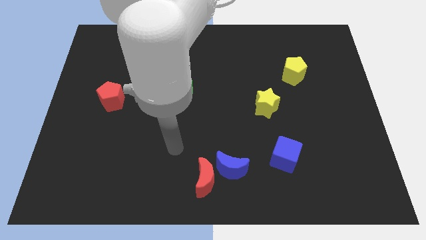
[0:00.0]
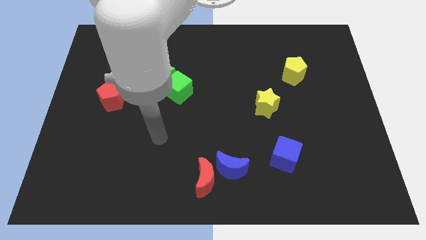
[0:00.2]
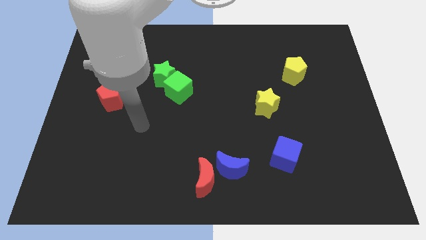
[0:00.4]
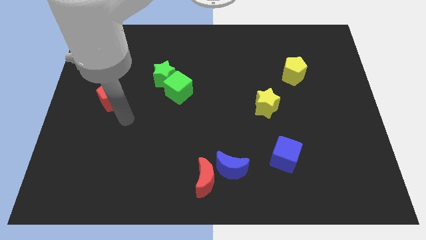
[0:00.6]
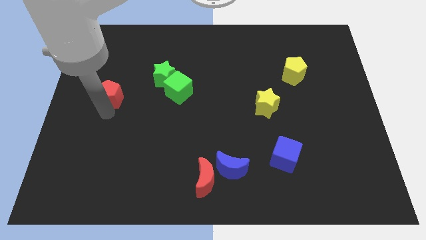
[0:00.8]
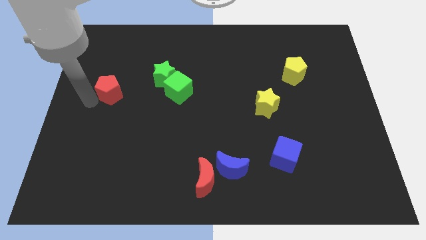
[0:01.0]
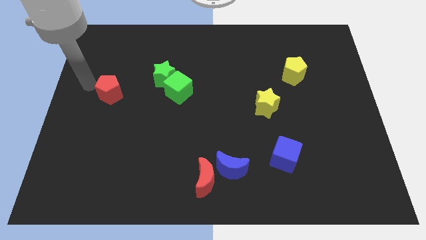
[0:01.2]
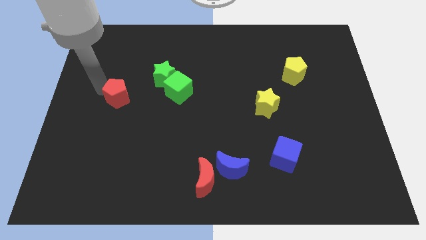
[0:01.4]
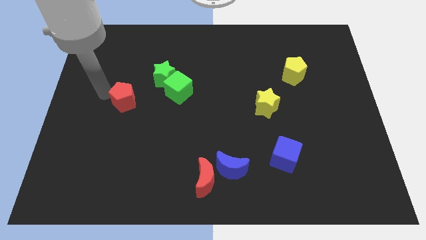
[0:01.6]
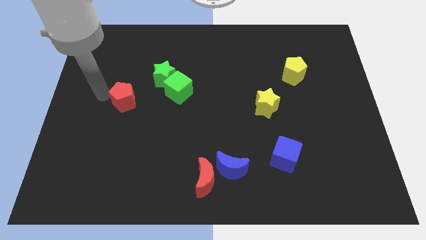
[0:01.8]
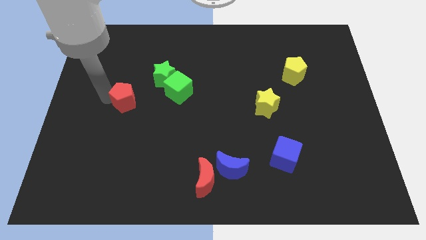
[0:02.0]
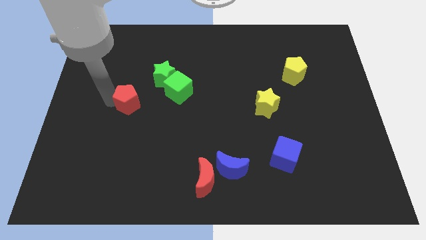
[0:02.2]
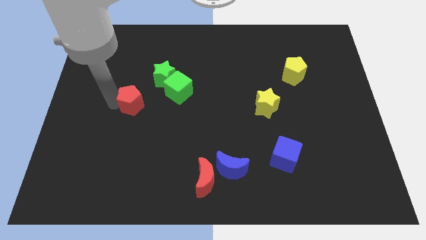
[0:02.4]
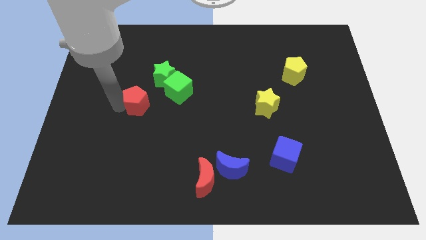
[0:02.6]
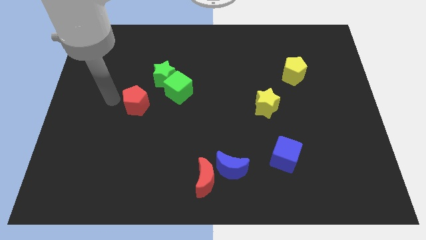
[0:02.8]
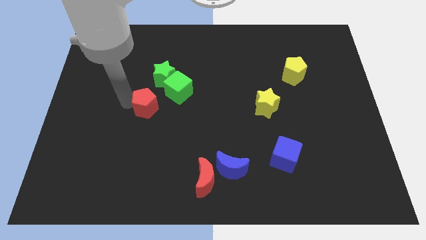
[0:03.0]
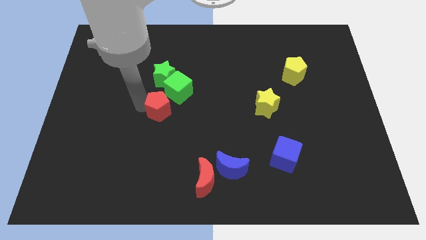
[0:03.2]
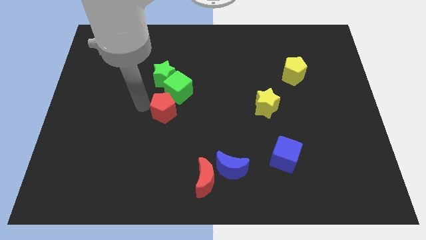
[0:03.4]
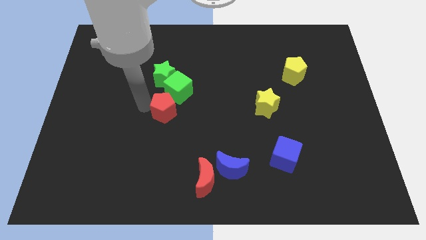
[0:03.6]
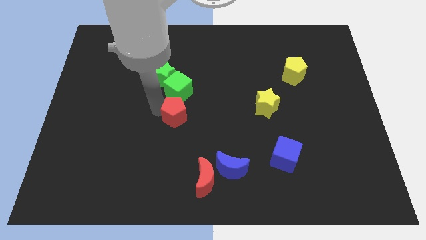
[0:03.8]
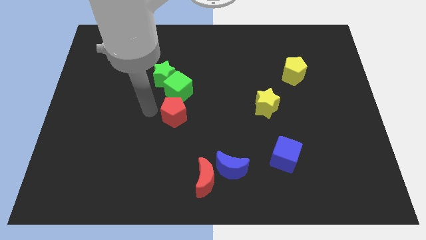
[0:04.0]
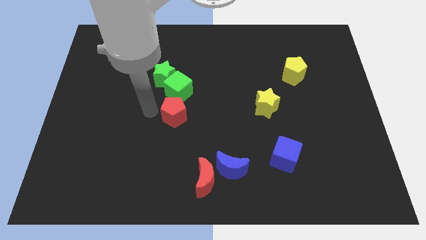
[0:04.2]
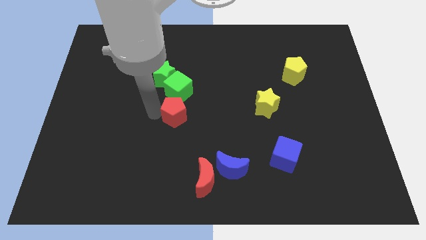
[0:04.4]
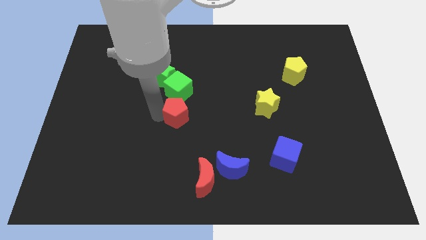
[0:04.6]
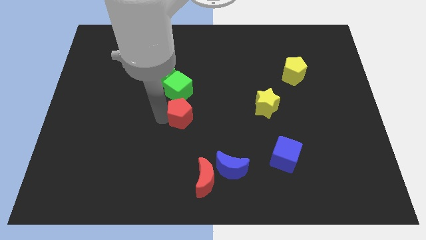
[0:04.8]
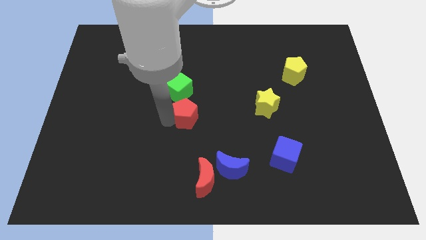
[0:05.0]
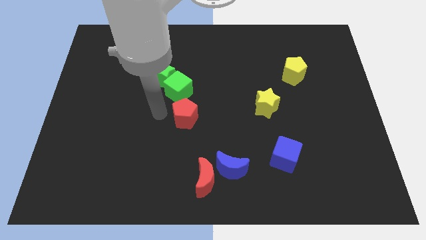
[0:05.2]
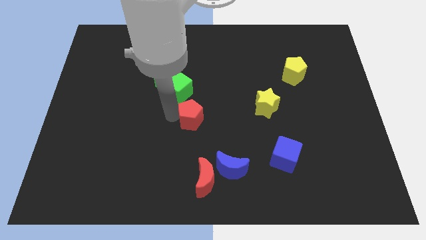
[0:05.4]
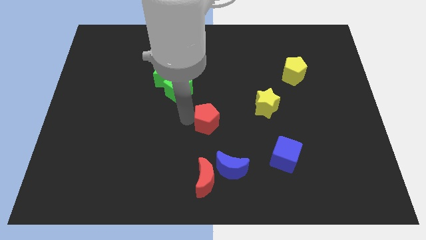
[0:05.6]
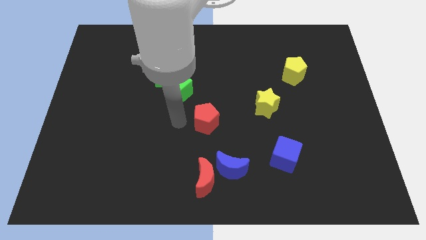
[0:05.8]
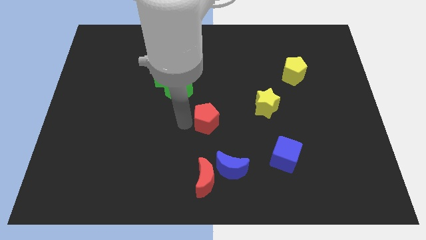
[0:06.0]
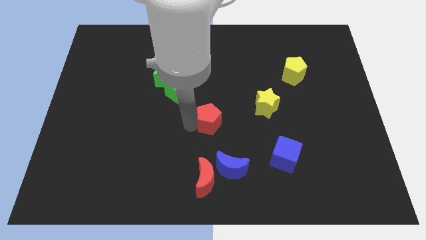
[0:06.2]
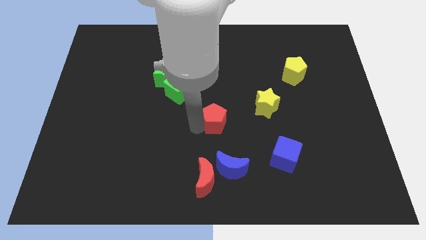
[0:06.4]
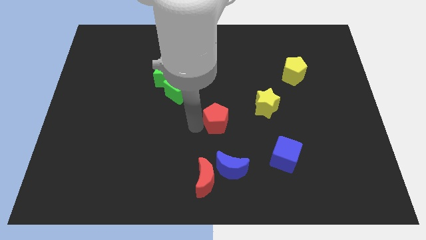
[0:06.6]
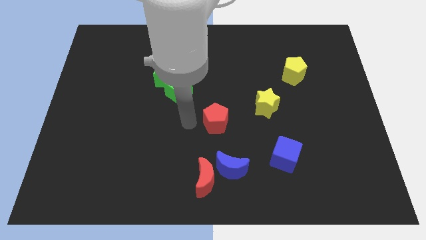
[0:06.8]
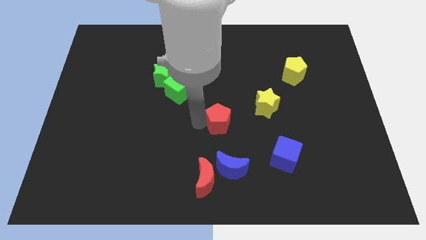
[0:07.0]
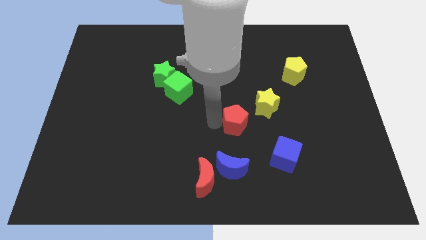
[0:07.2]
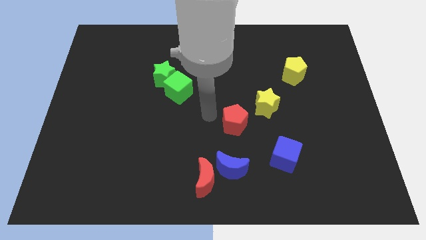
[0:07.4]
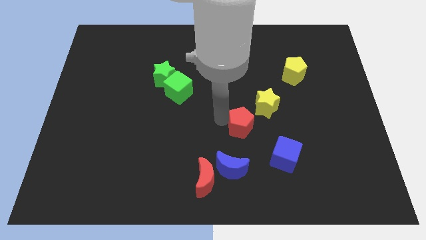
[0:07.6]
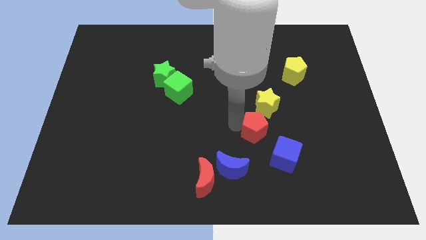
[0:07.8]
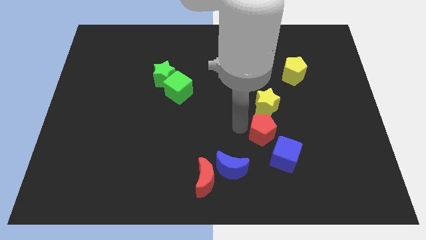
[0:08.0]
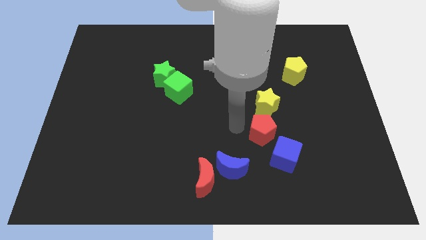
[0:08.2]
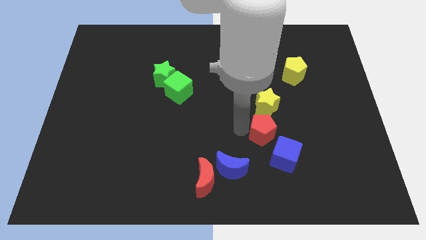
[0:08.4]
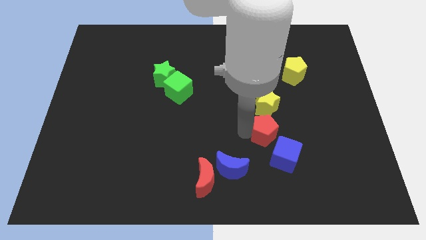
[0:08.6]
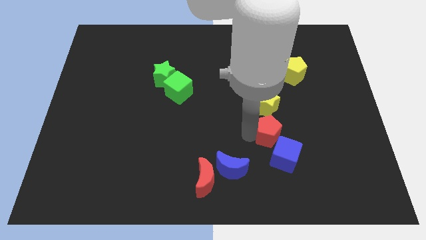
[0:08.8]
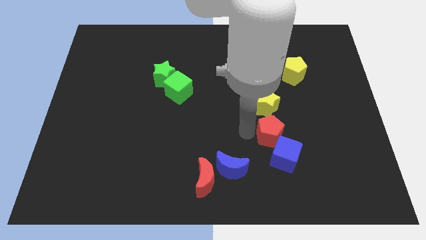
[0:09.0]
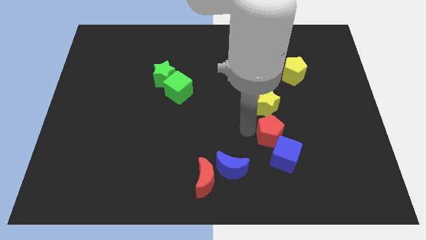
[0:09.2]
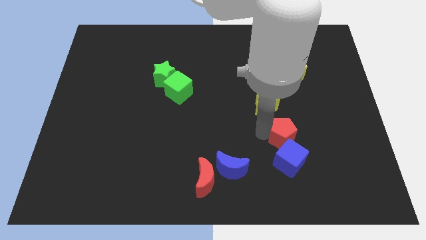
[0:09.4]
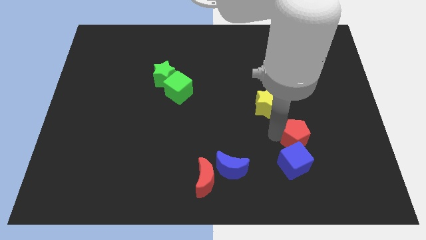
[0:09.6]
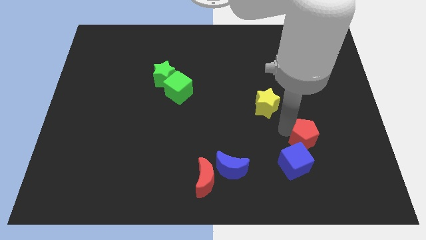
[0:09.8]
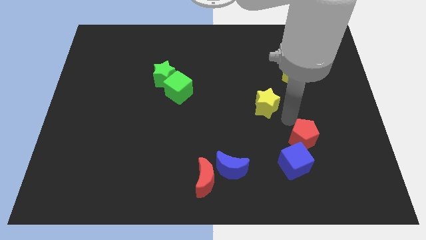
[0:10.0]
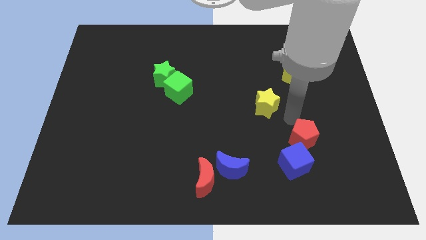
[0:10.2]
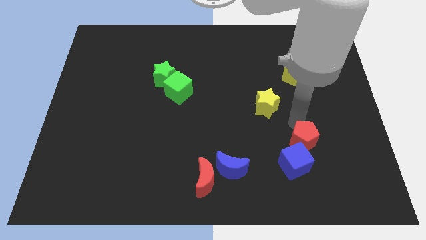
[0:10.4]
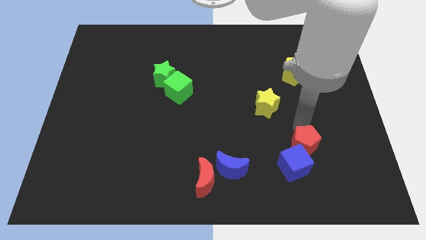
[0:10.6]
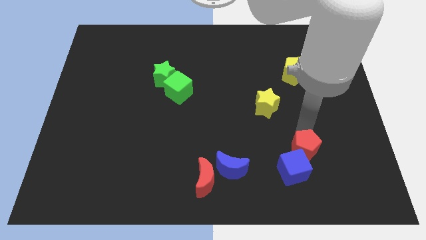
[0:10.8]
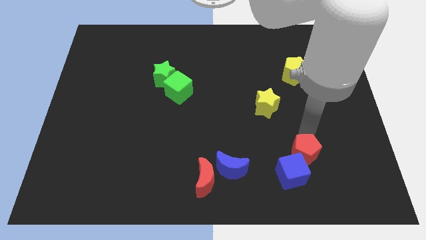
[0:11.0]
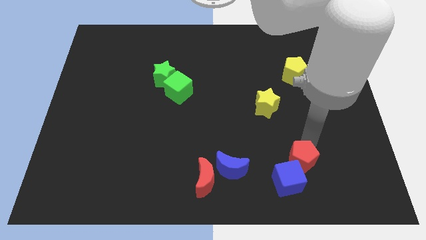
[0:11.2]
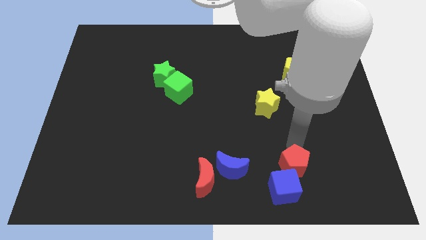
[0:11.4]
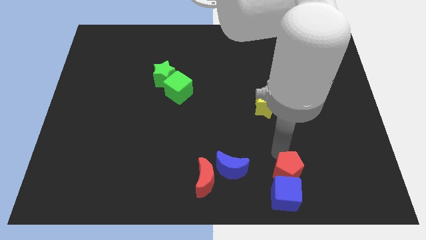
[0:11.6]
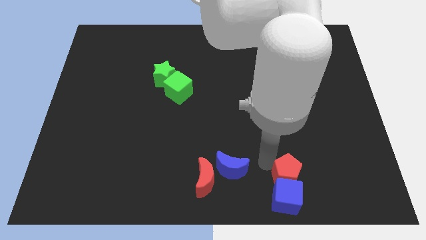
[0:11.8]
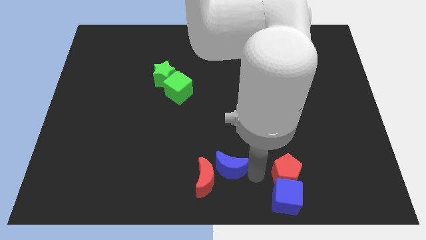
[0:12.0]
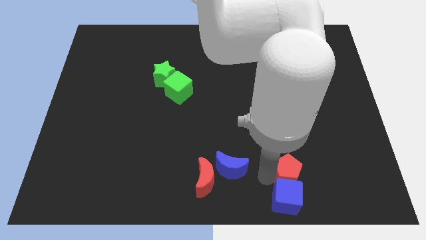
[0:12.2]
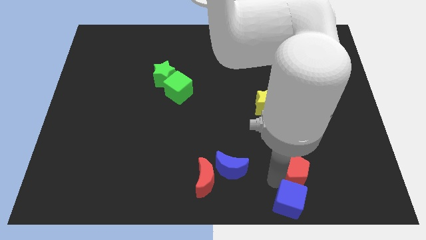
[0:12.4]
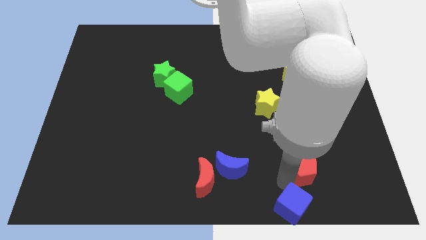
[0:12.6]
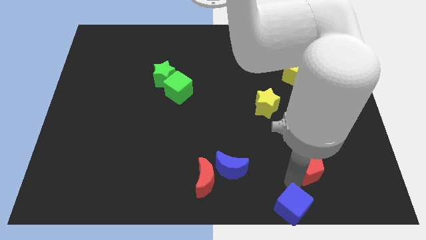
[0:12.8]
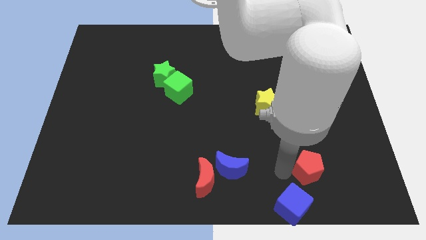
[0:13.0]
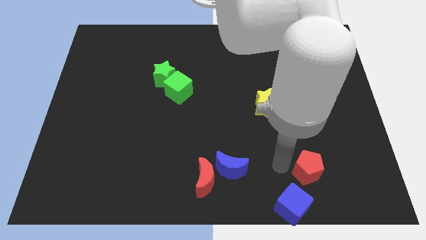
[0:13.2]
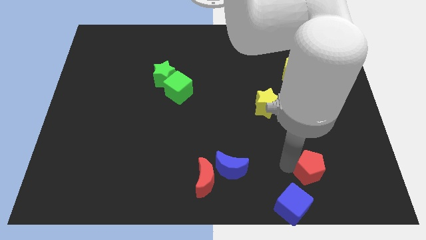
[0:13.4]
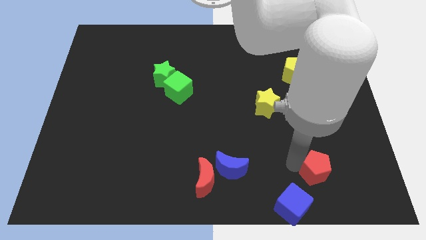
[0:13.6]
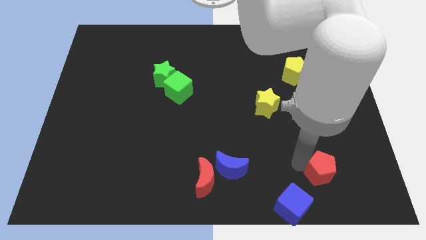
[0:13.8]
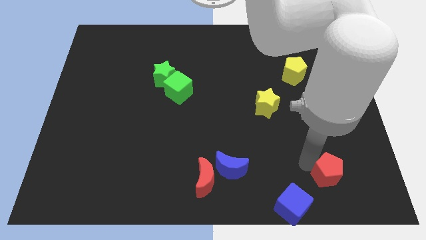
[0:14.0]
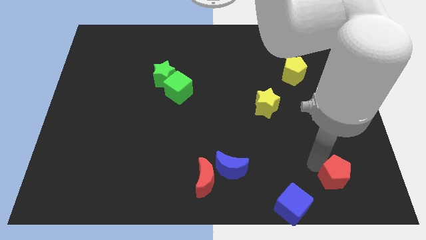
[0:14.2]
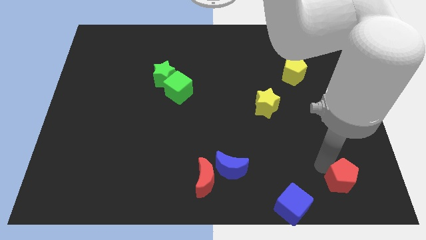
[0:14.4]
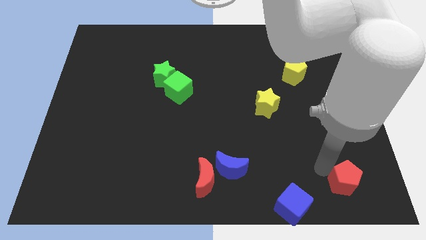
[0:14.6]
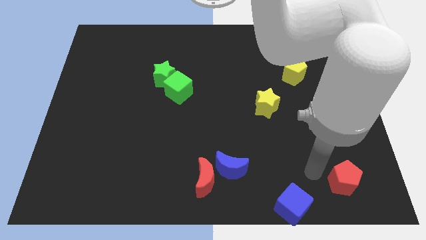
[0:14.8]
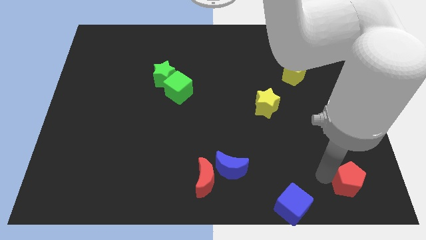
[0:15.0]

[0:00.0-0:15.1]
put the red pentagon to the bottom right corner
